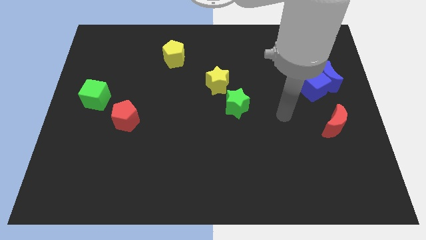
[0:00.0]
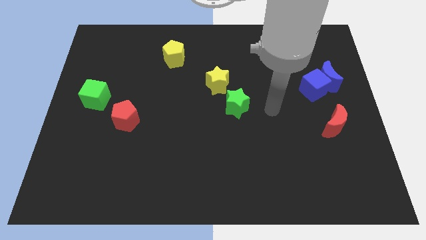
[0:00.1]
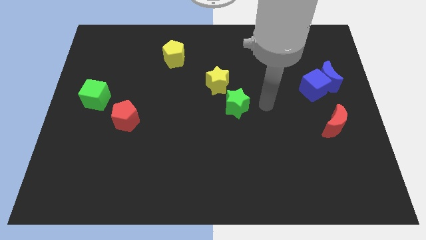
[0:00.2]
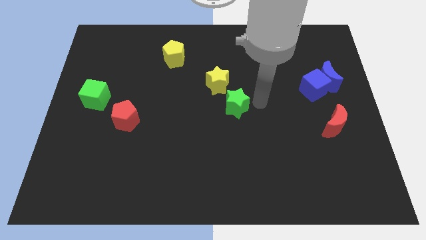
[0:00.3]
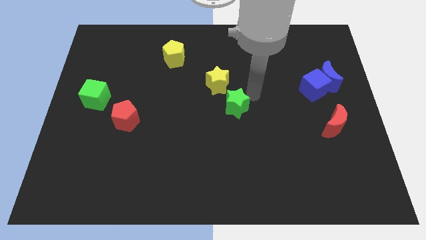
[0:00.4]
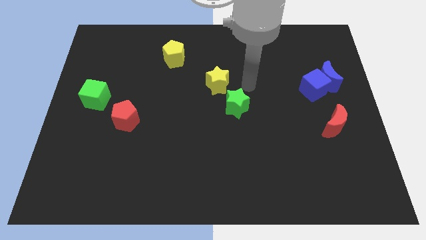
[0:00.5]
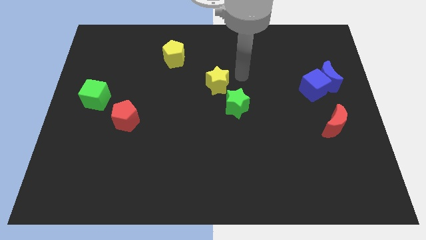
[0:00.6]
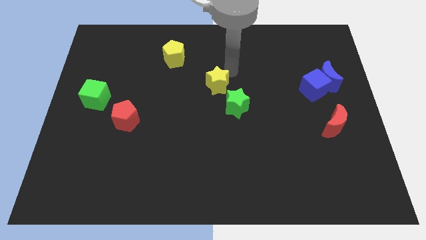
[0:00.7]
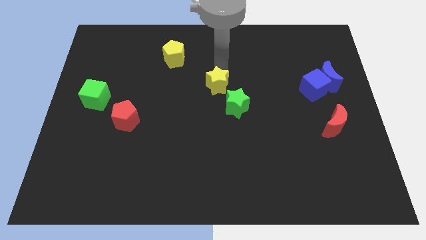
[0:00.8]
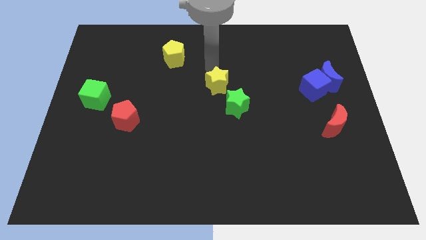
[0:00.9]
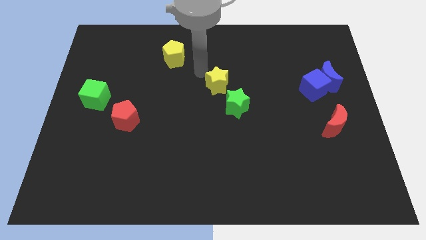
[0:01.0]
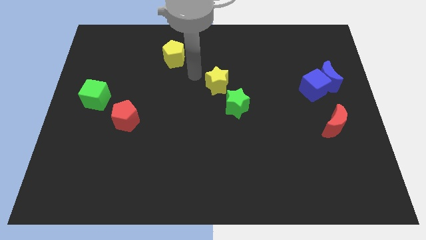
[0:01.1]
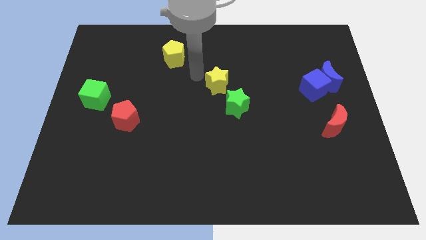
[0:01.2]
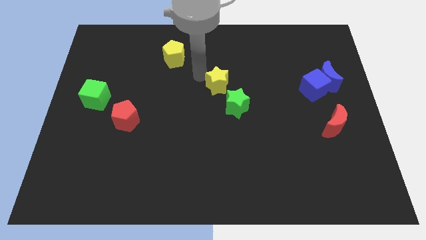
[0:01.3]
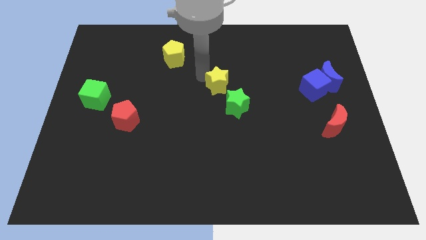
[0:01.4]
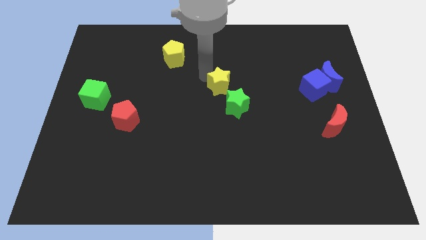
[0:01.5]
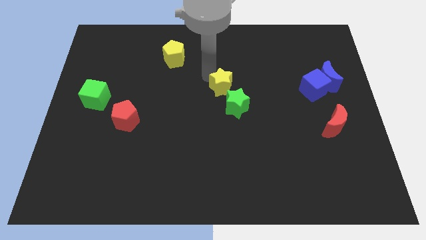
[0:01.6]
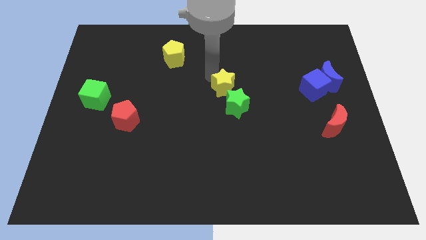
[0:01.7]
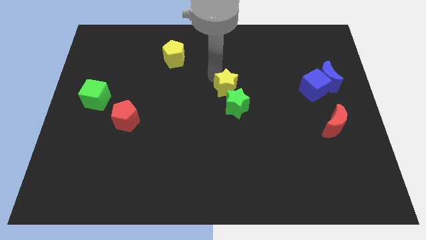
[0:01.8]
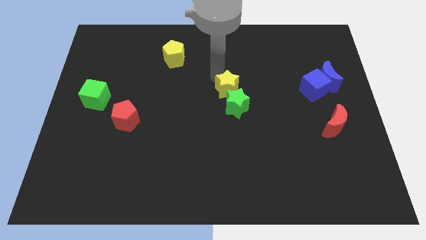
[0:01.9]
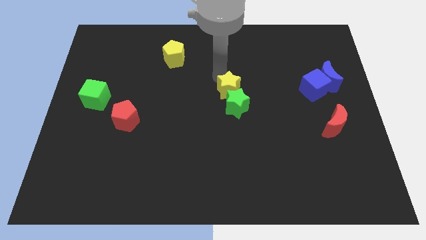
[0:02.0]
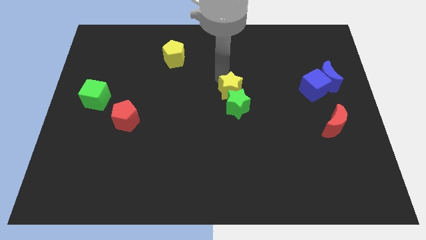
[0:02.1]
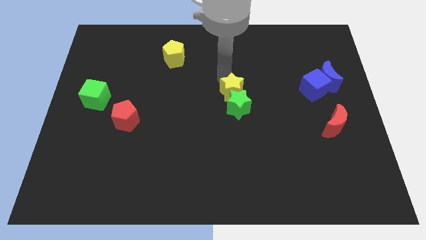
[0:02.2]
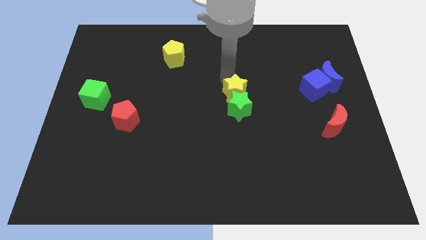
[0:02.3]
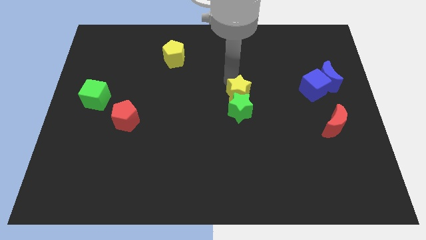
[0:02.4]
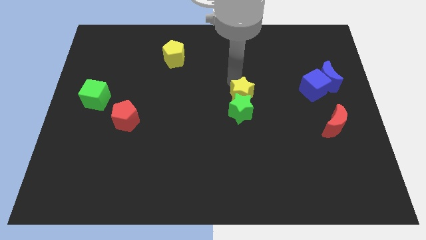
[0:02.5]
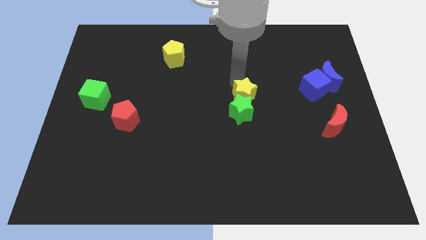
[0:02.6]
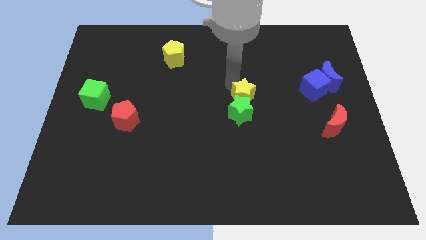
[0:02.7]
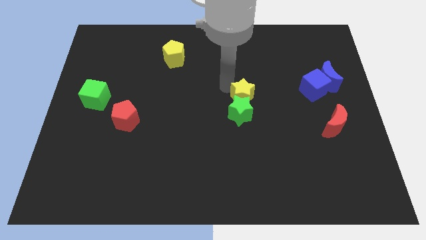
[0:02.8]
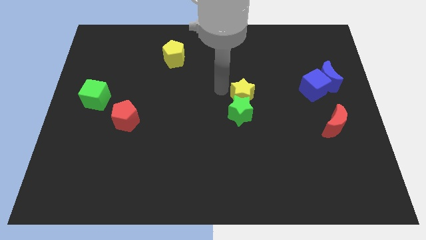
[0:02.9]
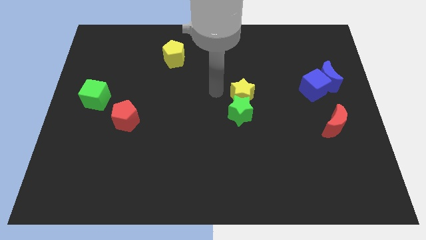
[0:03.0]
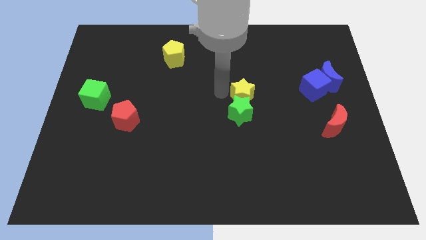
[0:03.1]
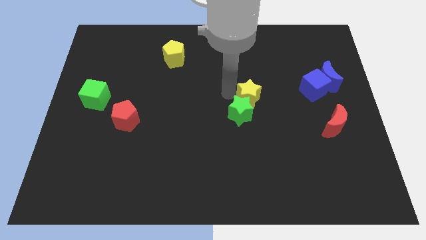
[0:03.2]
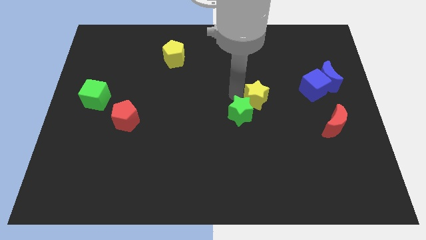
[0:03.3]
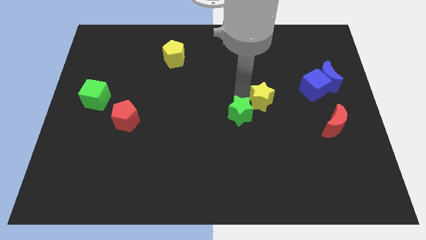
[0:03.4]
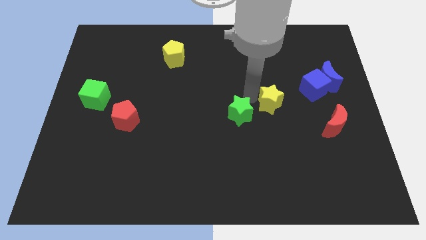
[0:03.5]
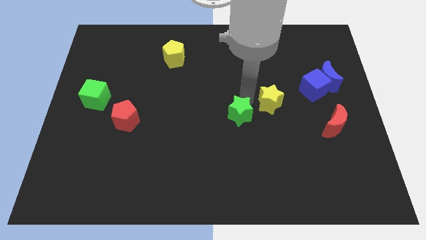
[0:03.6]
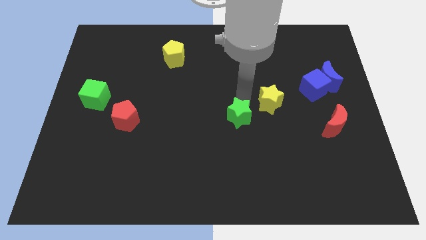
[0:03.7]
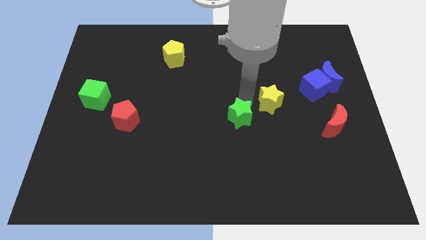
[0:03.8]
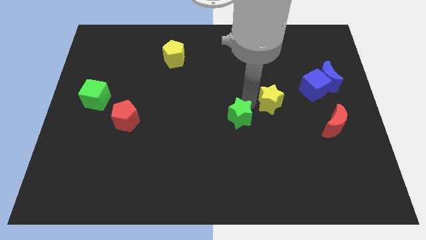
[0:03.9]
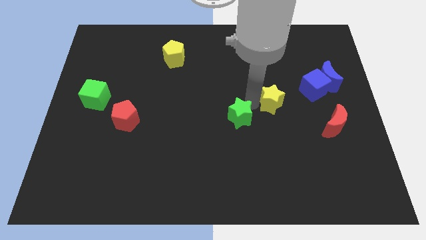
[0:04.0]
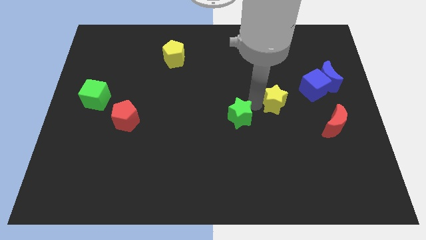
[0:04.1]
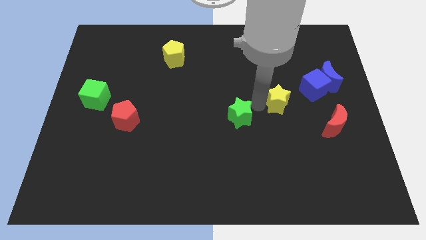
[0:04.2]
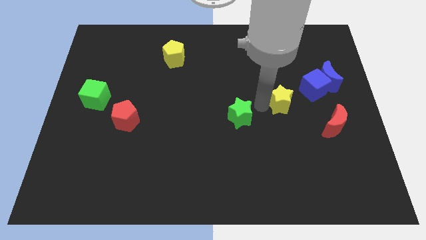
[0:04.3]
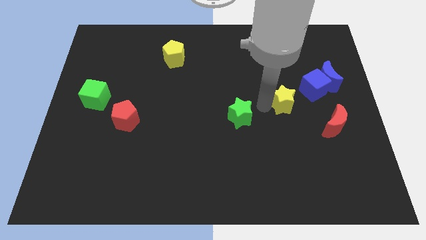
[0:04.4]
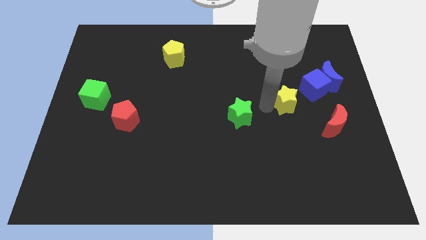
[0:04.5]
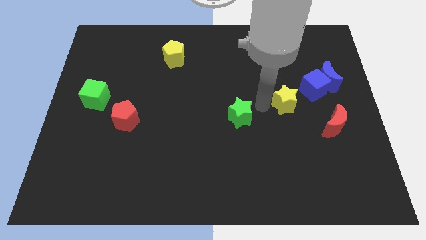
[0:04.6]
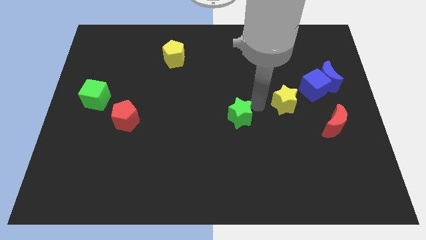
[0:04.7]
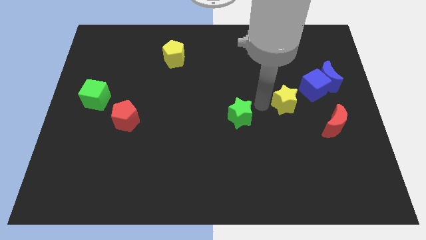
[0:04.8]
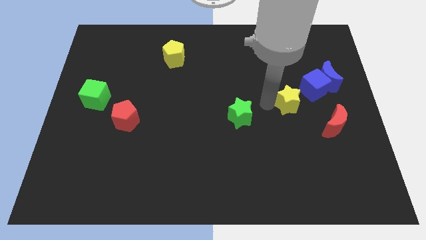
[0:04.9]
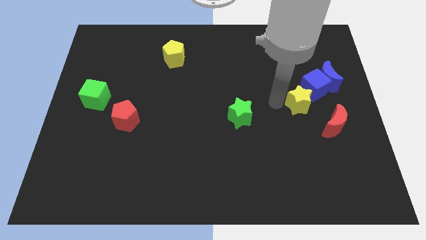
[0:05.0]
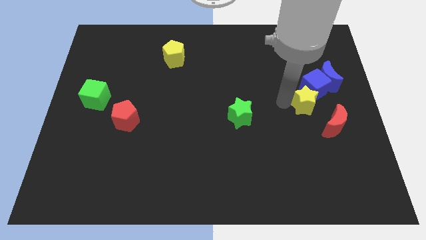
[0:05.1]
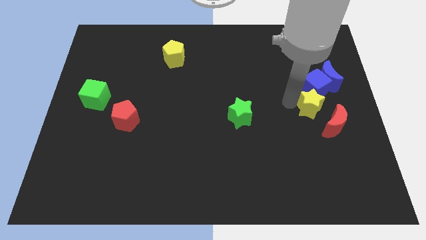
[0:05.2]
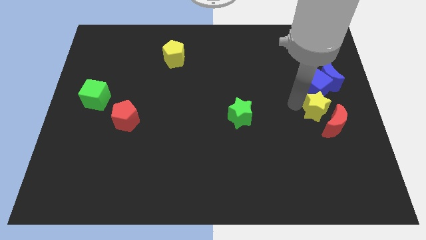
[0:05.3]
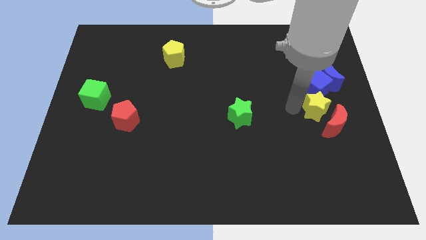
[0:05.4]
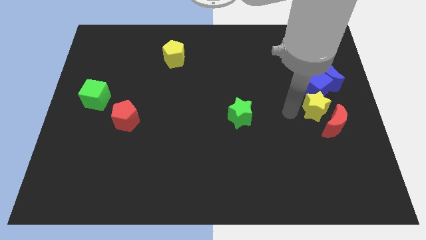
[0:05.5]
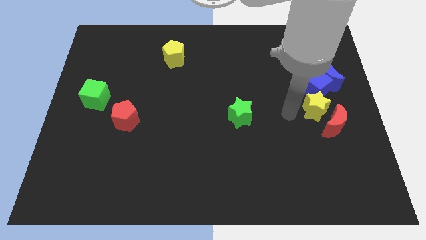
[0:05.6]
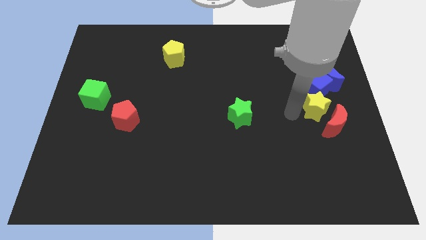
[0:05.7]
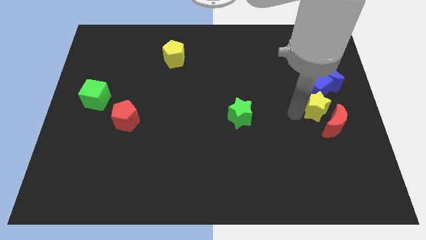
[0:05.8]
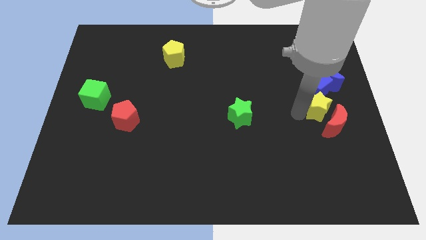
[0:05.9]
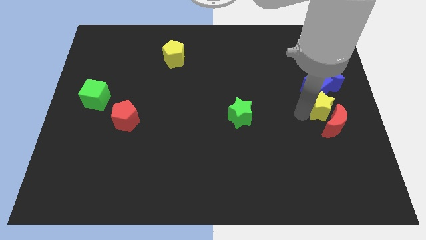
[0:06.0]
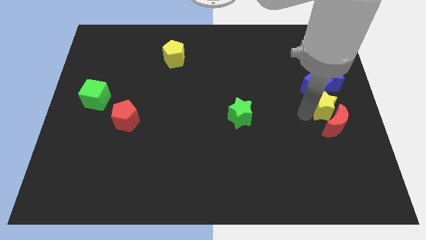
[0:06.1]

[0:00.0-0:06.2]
slide the yellow star to the center right

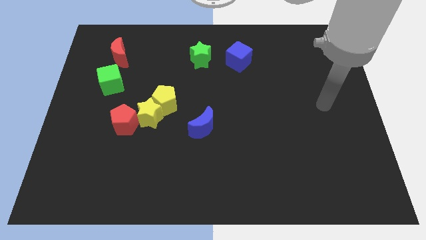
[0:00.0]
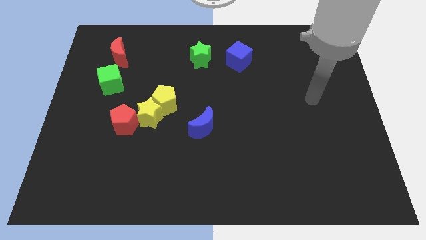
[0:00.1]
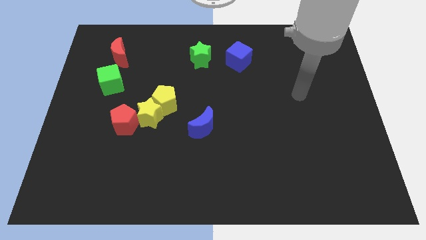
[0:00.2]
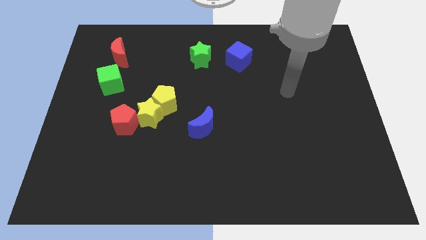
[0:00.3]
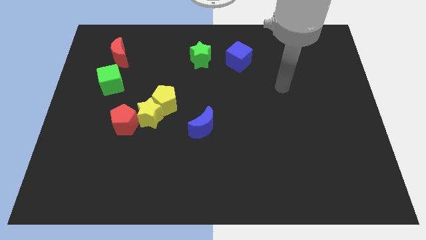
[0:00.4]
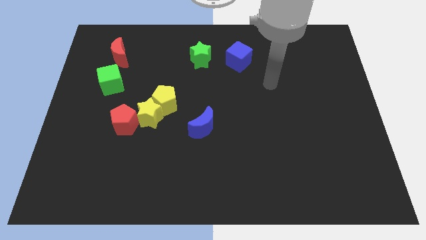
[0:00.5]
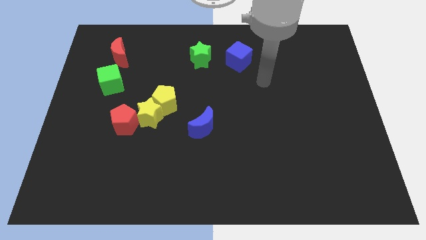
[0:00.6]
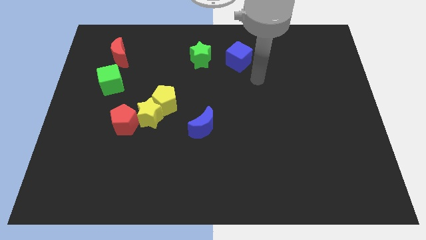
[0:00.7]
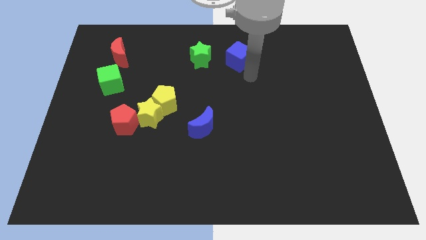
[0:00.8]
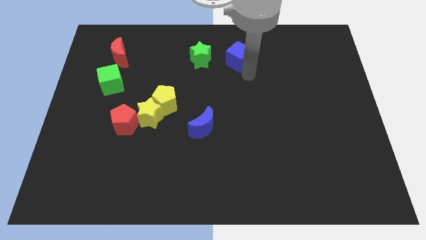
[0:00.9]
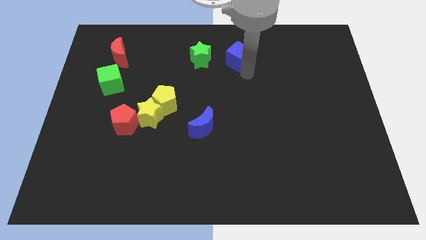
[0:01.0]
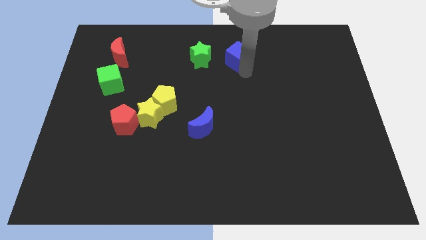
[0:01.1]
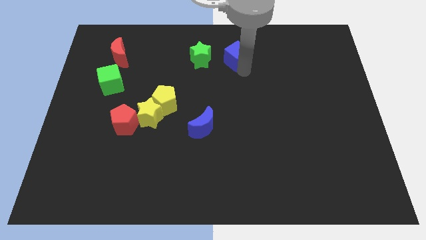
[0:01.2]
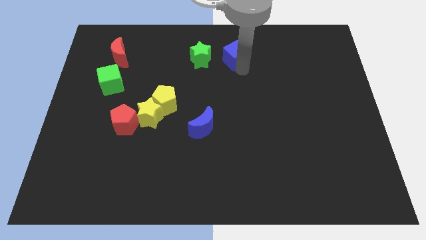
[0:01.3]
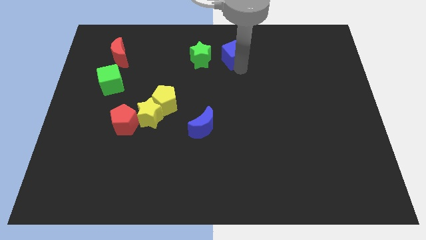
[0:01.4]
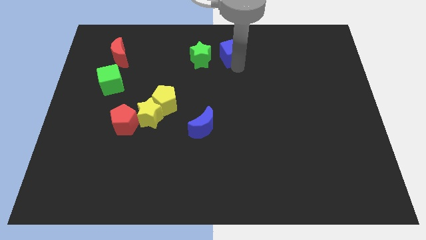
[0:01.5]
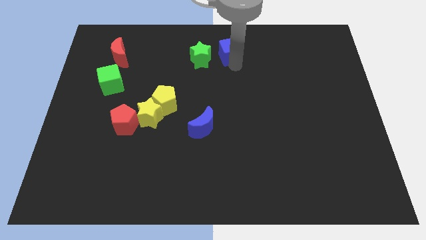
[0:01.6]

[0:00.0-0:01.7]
slide the blue cube to the towards your base
